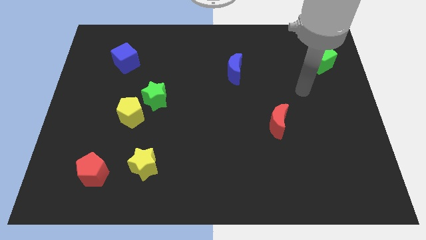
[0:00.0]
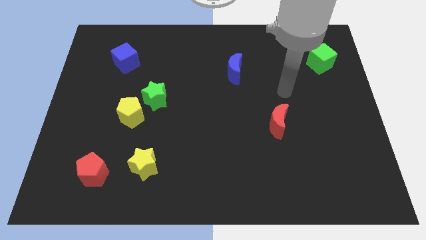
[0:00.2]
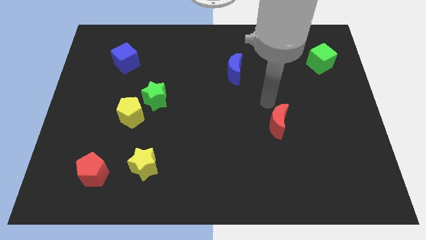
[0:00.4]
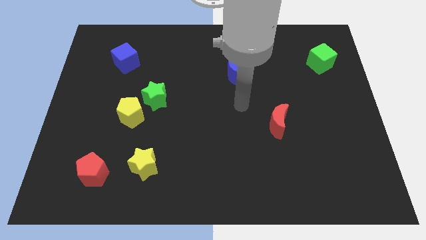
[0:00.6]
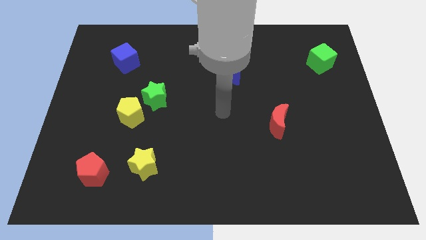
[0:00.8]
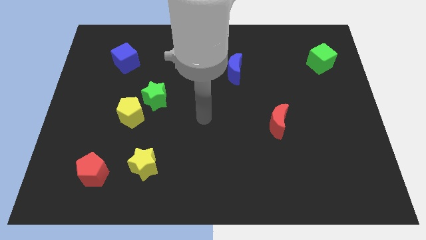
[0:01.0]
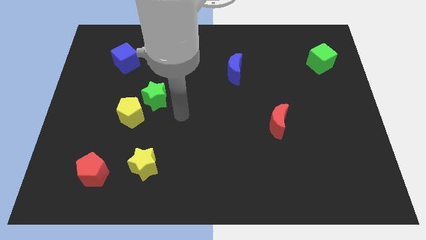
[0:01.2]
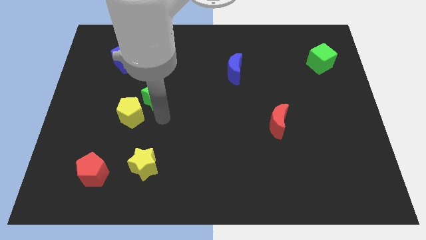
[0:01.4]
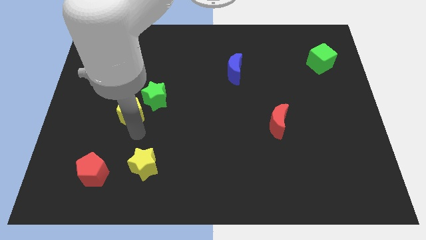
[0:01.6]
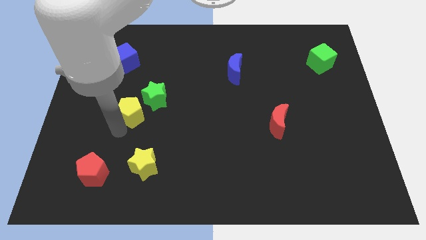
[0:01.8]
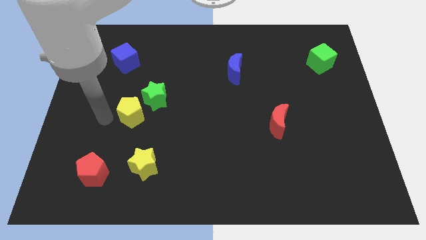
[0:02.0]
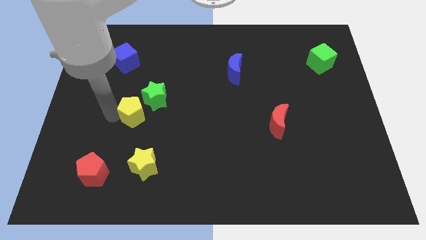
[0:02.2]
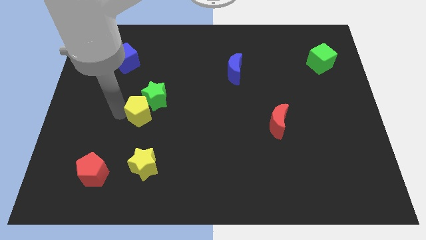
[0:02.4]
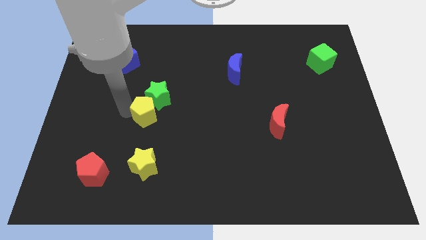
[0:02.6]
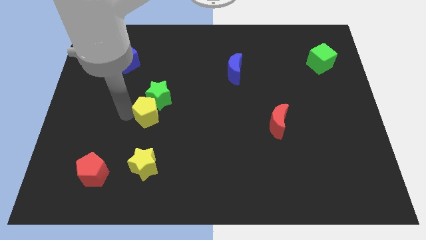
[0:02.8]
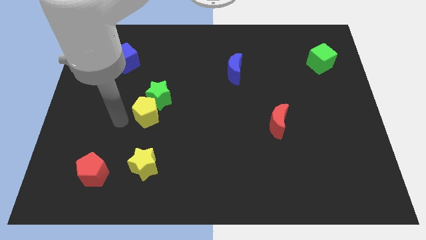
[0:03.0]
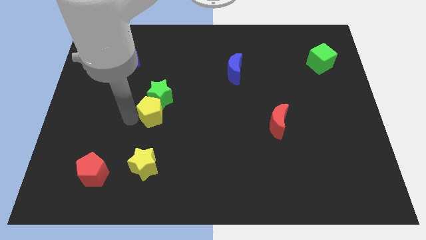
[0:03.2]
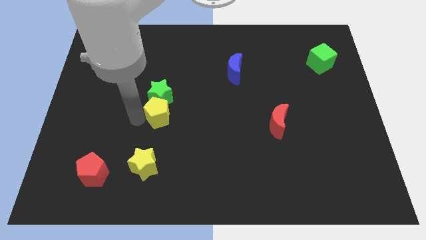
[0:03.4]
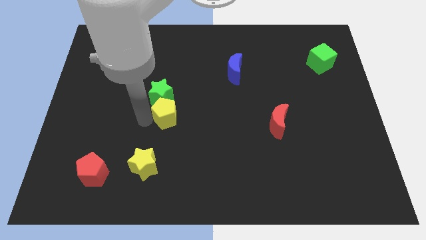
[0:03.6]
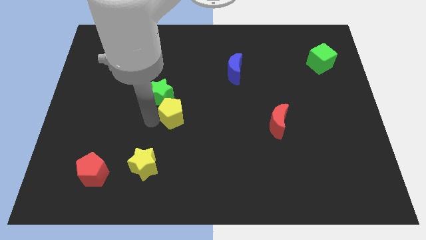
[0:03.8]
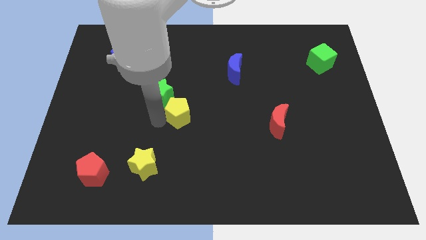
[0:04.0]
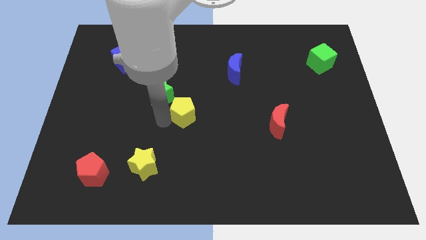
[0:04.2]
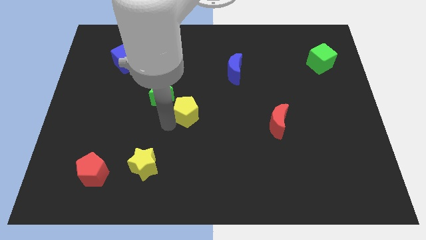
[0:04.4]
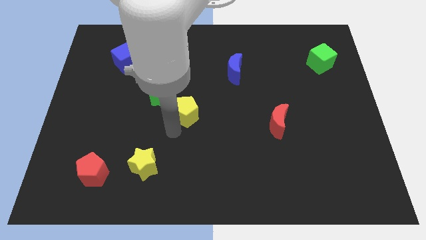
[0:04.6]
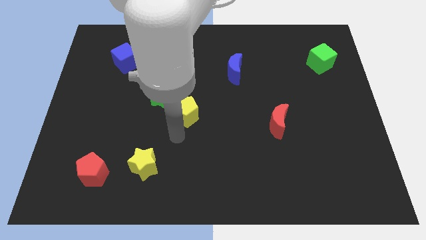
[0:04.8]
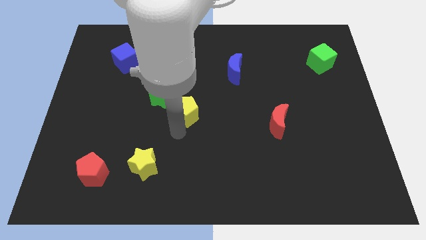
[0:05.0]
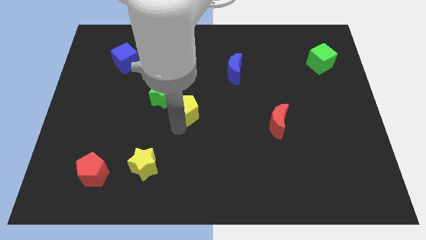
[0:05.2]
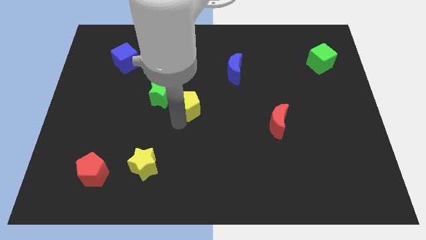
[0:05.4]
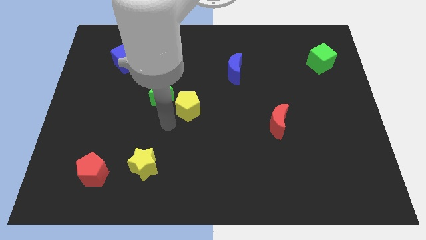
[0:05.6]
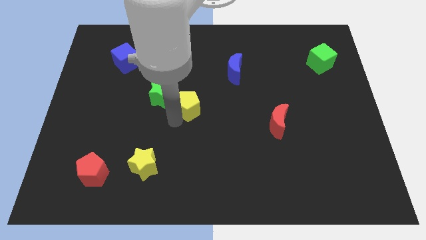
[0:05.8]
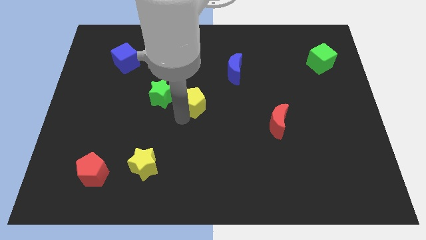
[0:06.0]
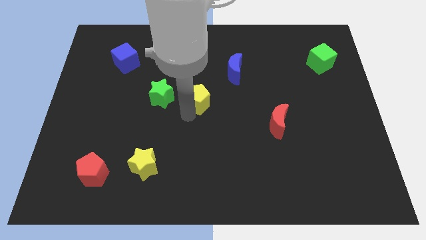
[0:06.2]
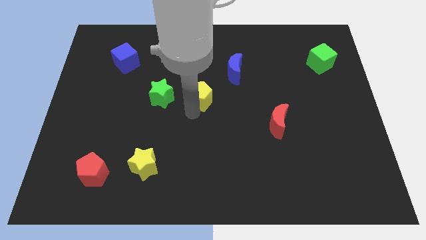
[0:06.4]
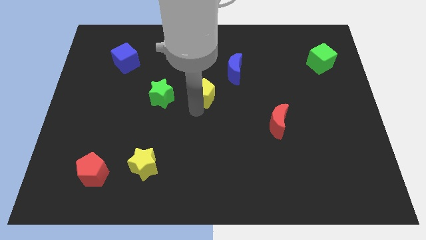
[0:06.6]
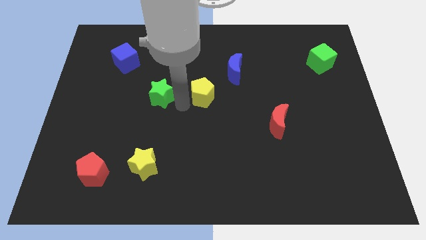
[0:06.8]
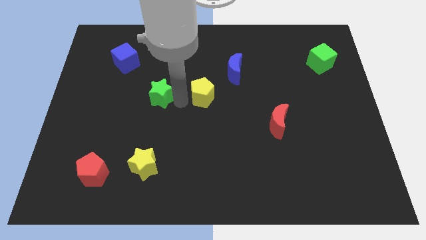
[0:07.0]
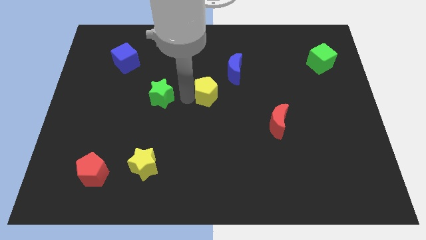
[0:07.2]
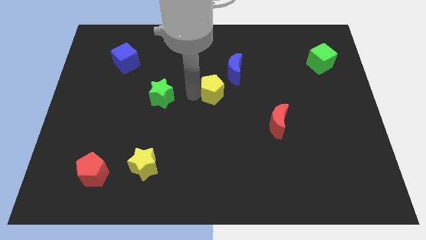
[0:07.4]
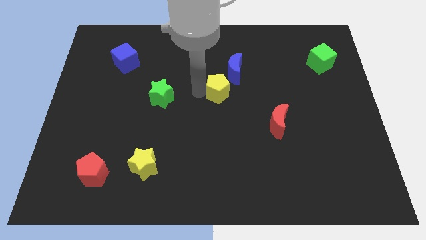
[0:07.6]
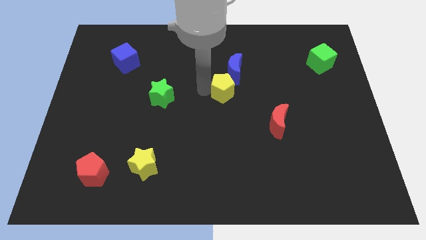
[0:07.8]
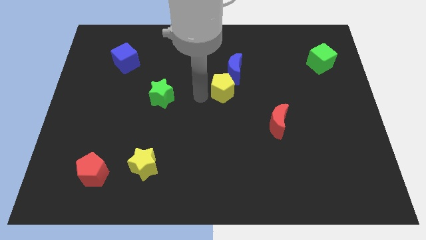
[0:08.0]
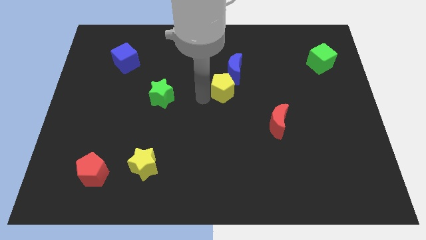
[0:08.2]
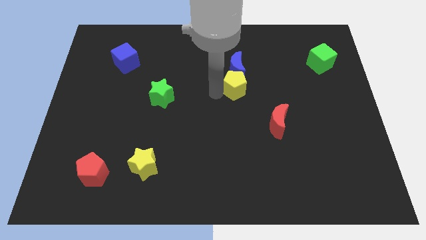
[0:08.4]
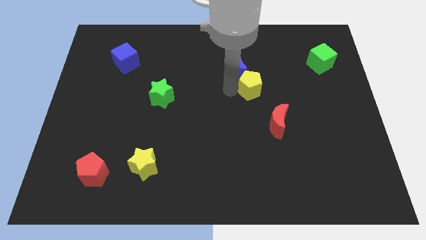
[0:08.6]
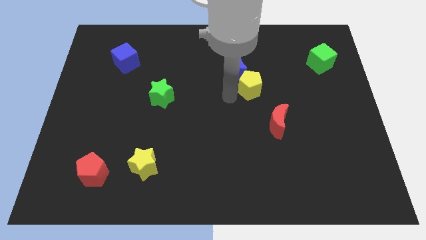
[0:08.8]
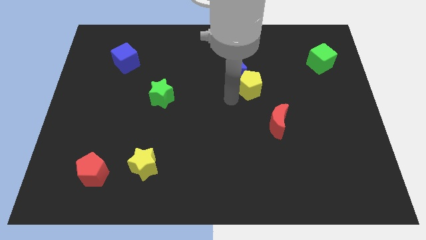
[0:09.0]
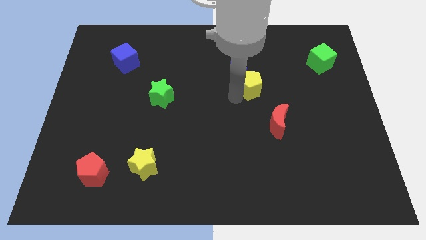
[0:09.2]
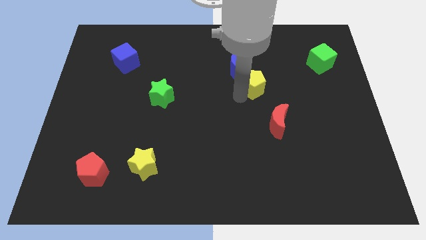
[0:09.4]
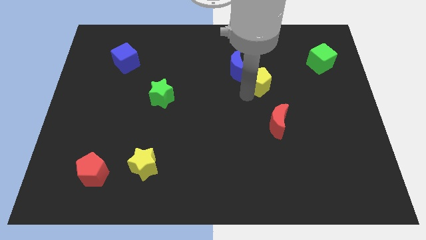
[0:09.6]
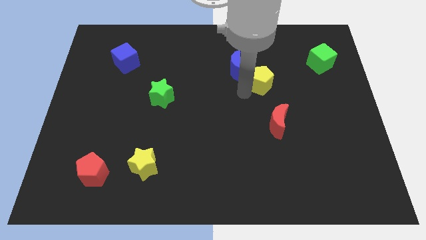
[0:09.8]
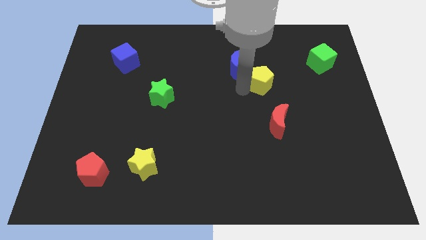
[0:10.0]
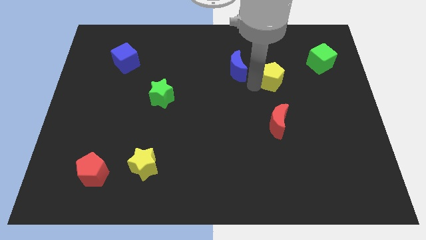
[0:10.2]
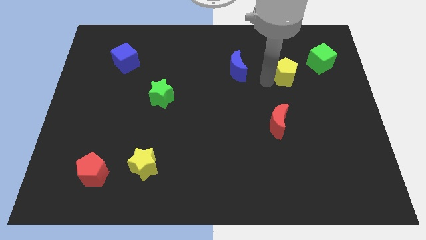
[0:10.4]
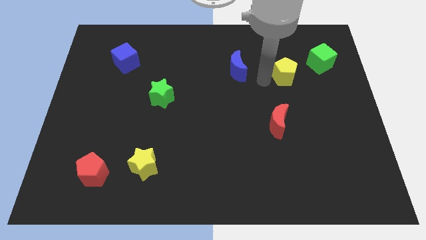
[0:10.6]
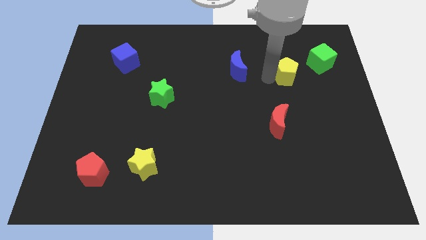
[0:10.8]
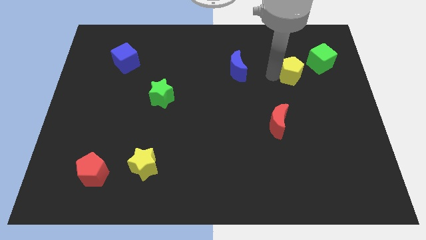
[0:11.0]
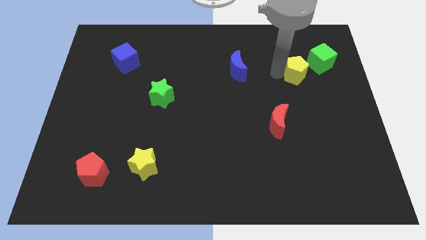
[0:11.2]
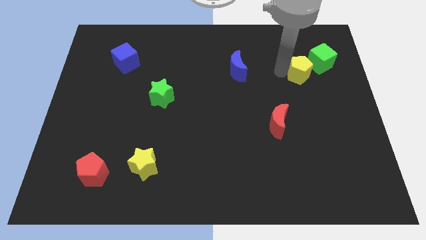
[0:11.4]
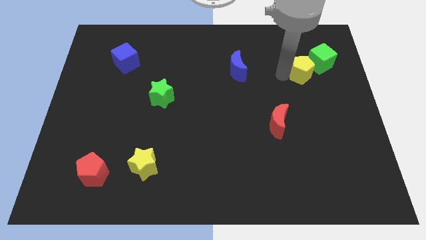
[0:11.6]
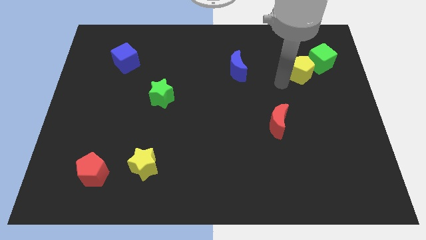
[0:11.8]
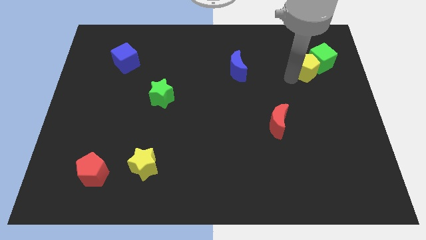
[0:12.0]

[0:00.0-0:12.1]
push the yellow pentagon to the green cube
